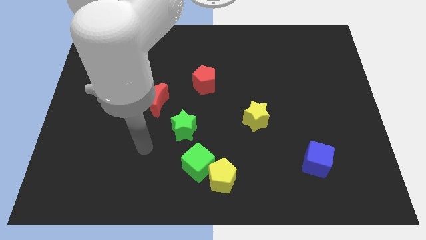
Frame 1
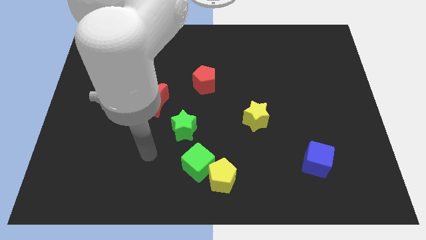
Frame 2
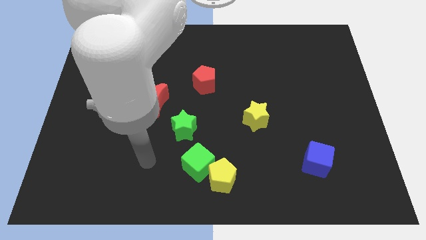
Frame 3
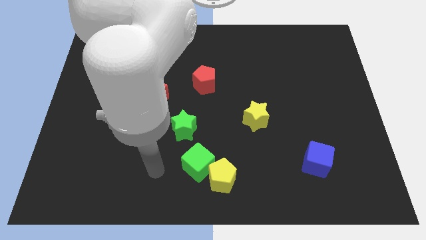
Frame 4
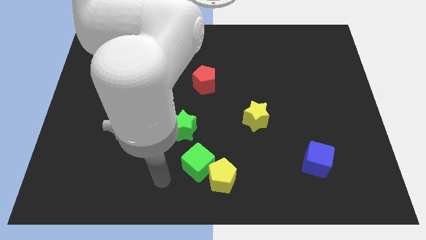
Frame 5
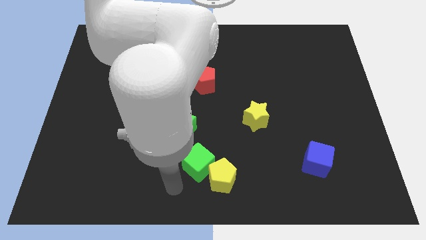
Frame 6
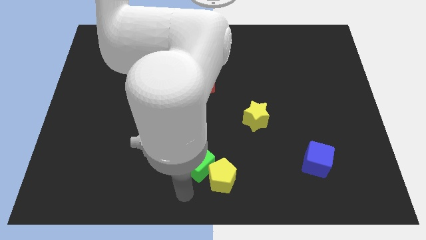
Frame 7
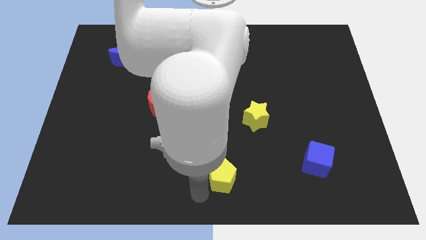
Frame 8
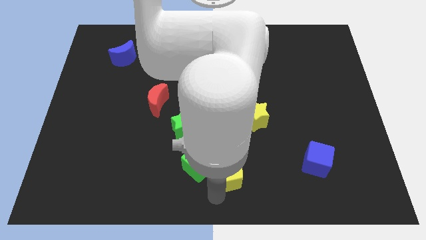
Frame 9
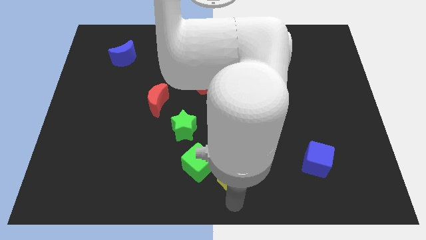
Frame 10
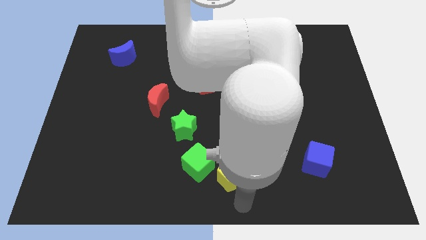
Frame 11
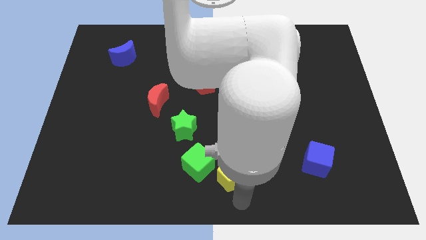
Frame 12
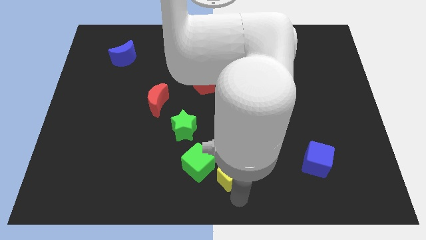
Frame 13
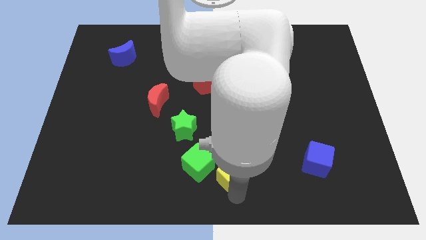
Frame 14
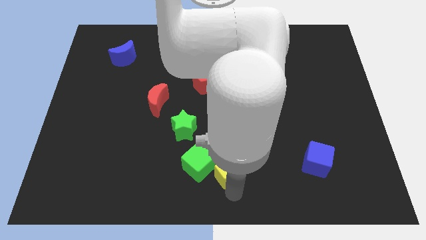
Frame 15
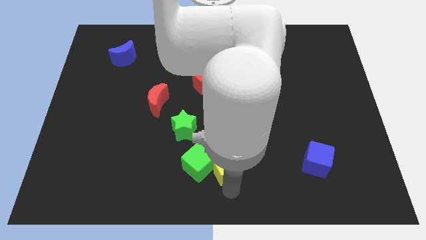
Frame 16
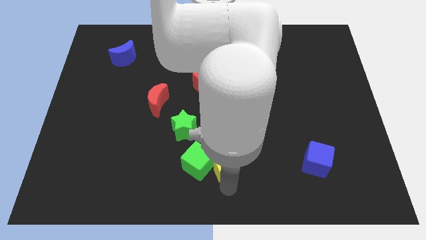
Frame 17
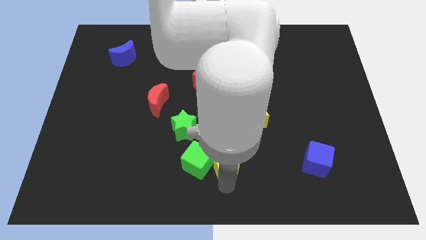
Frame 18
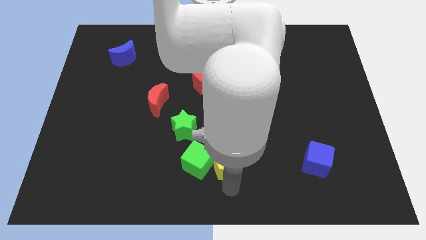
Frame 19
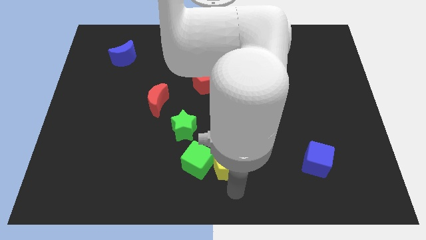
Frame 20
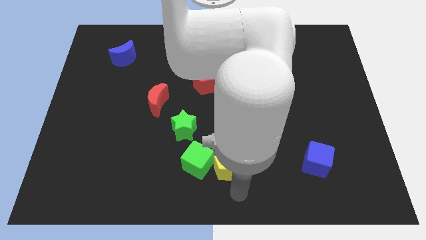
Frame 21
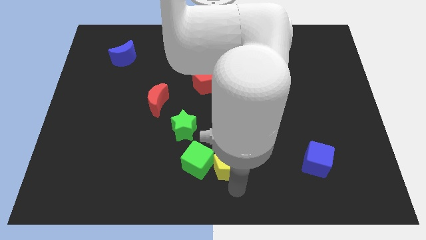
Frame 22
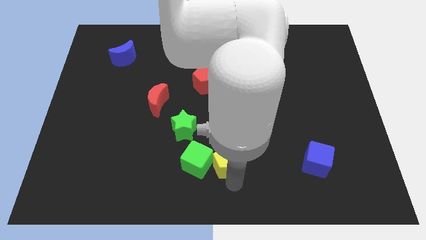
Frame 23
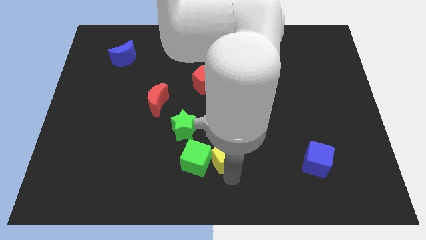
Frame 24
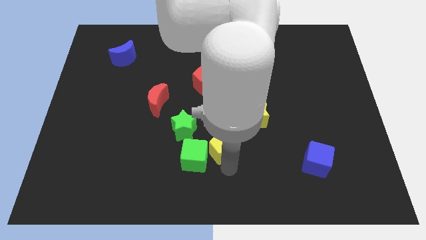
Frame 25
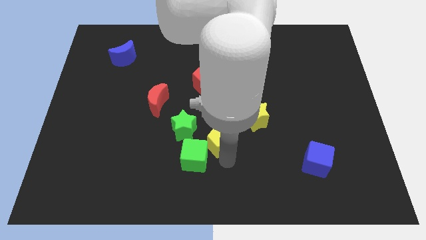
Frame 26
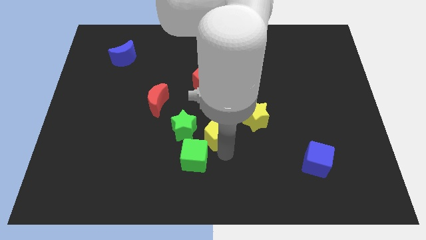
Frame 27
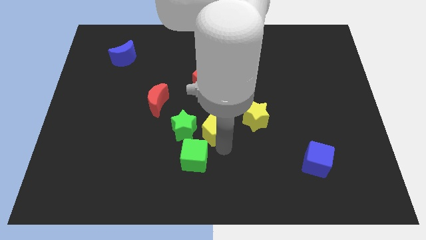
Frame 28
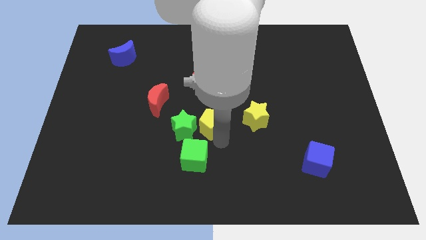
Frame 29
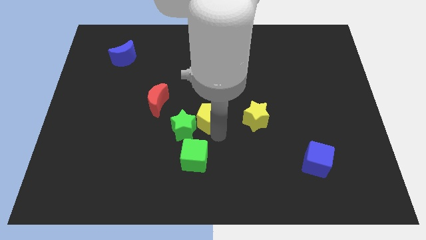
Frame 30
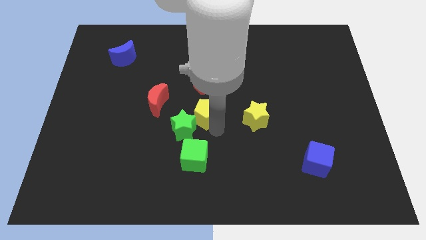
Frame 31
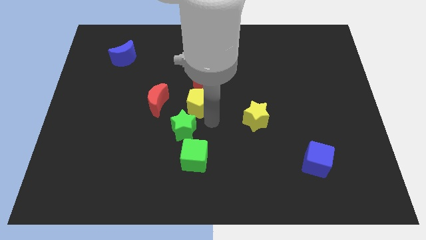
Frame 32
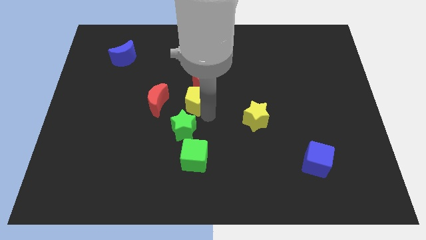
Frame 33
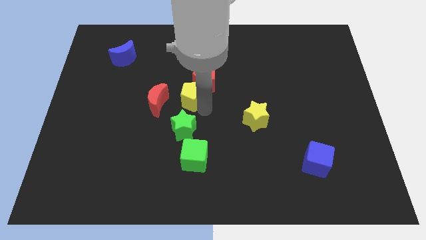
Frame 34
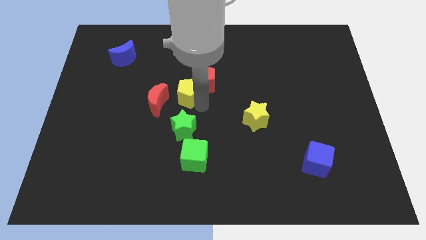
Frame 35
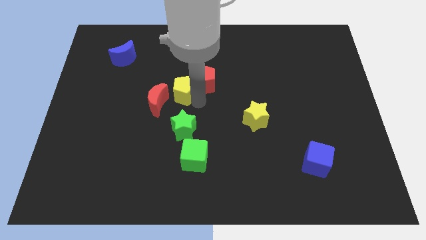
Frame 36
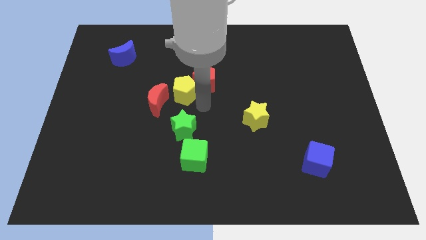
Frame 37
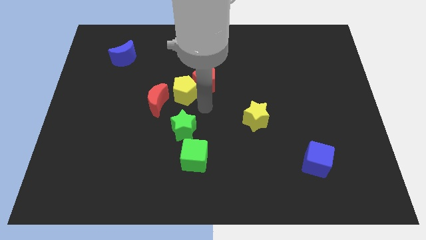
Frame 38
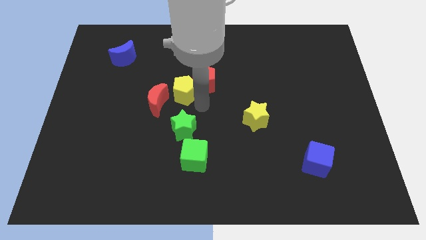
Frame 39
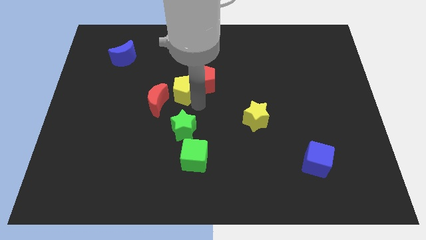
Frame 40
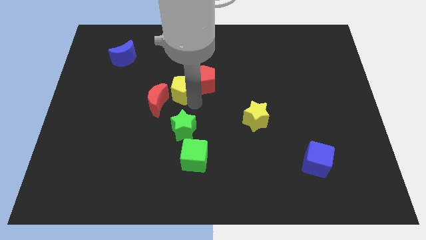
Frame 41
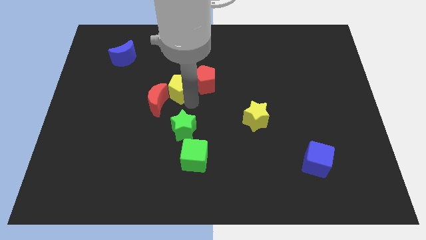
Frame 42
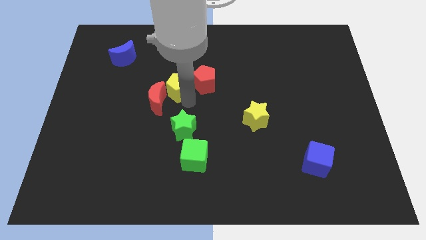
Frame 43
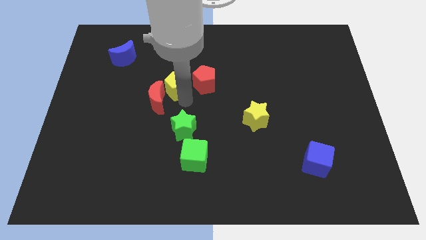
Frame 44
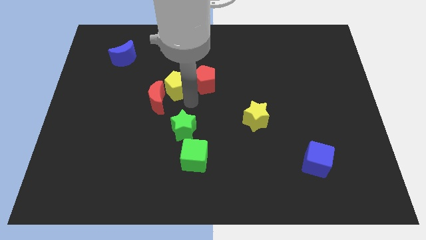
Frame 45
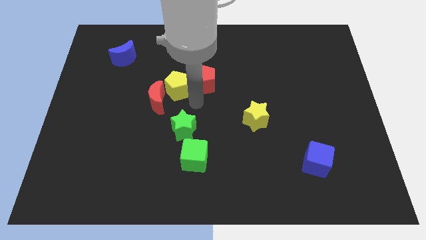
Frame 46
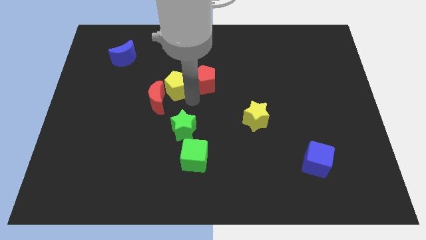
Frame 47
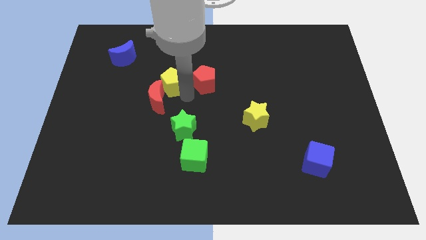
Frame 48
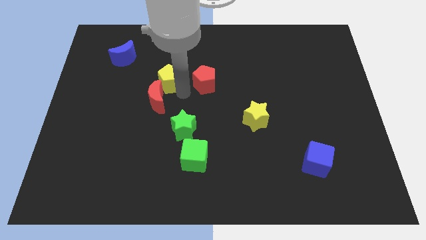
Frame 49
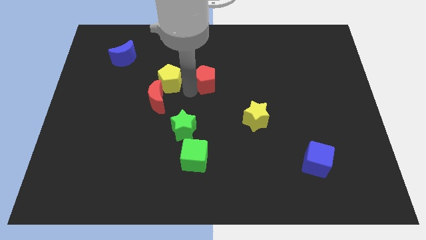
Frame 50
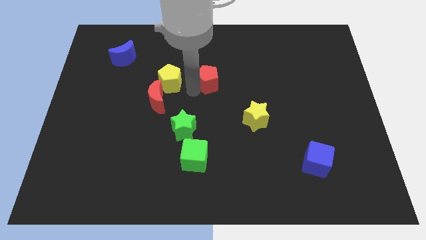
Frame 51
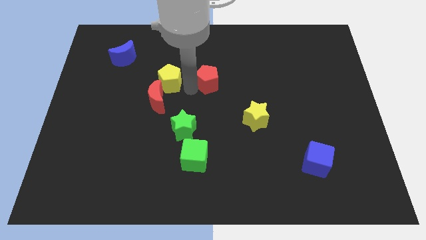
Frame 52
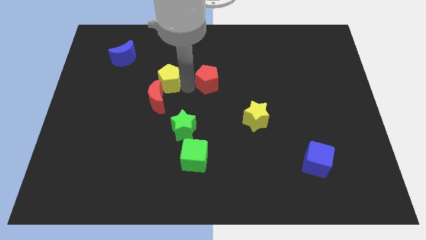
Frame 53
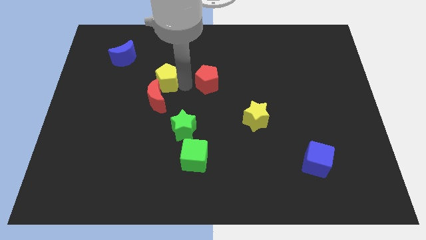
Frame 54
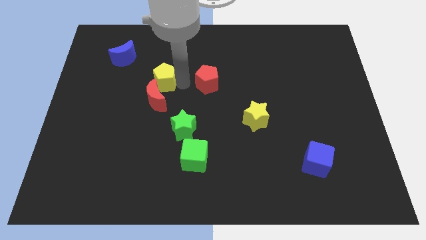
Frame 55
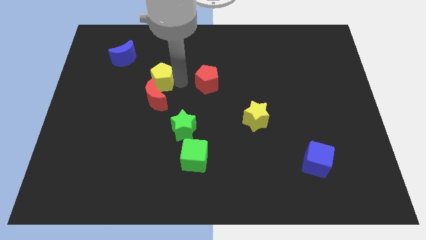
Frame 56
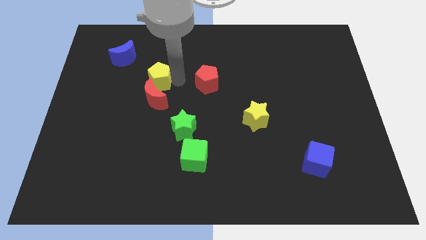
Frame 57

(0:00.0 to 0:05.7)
slide the yellow pentagon to the bottom right of the blue moon

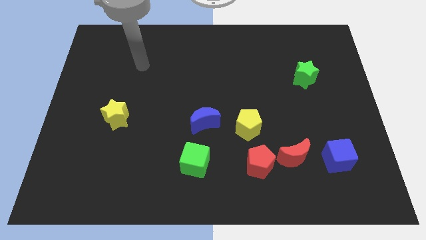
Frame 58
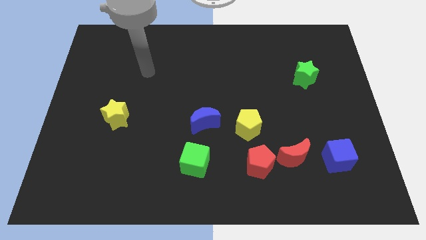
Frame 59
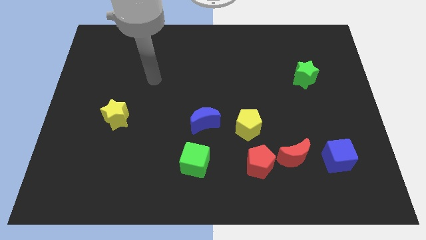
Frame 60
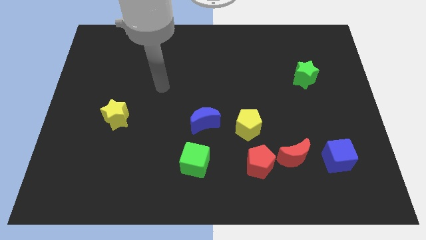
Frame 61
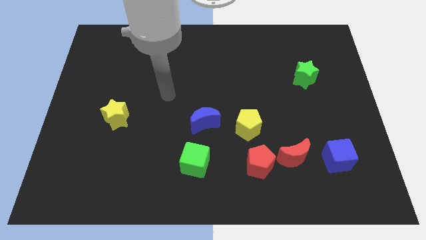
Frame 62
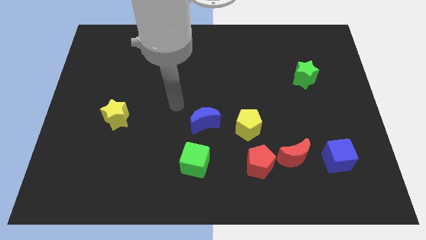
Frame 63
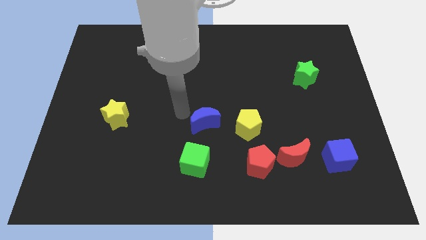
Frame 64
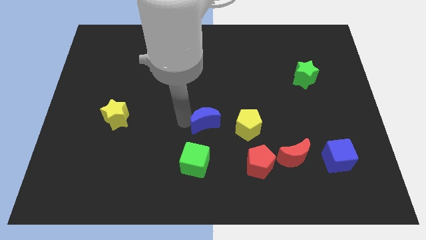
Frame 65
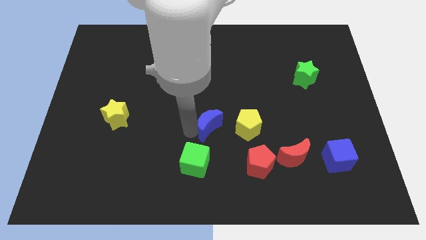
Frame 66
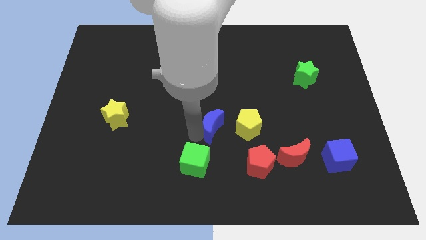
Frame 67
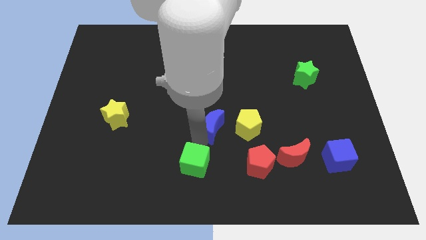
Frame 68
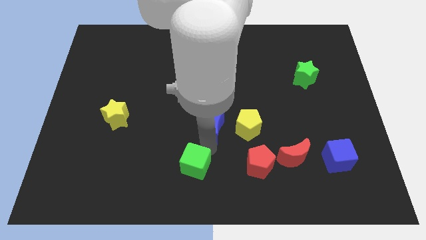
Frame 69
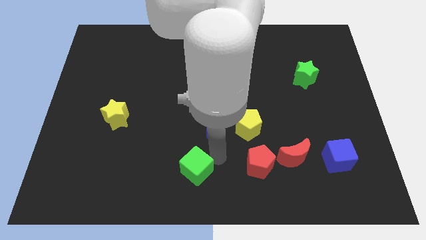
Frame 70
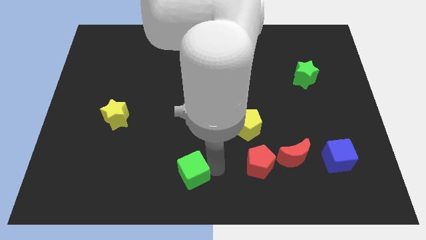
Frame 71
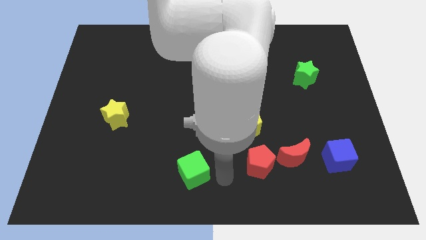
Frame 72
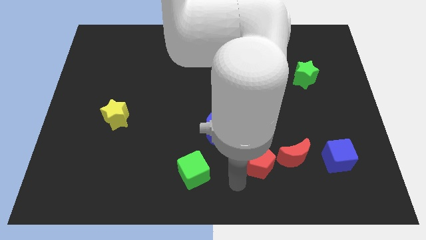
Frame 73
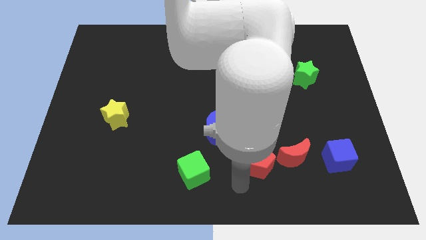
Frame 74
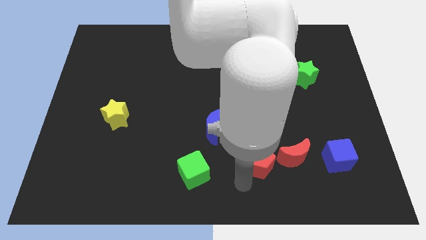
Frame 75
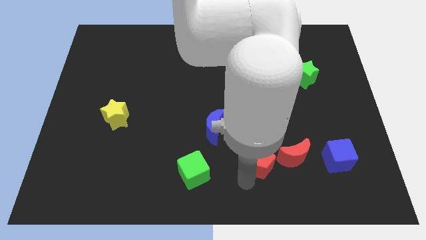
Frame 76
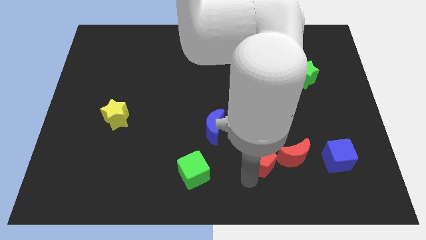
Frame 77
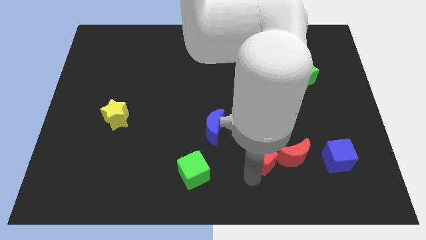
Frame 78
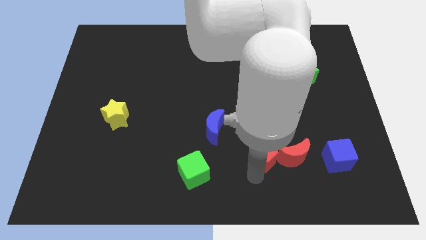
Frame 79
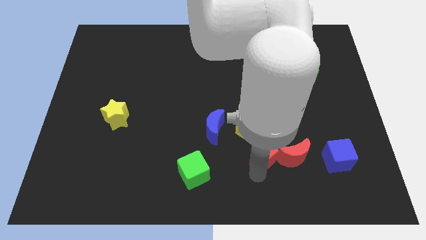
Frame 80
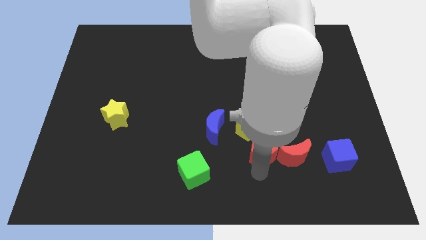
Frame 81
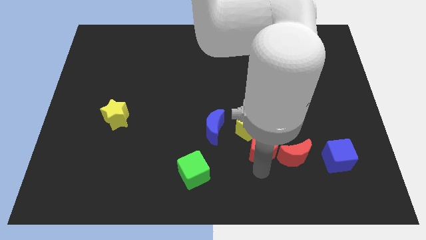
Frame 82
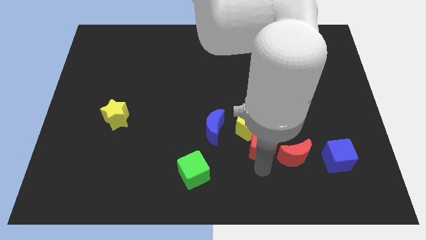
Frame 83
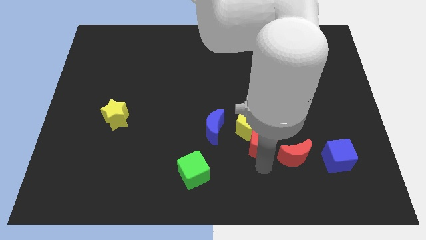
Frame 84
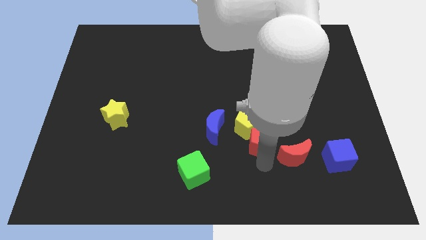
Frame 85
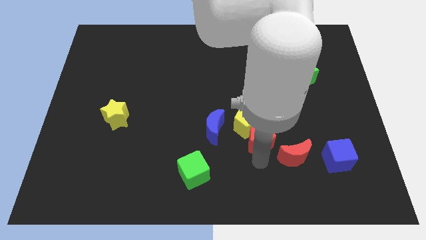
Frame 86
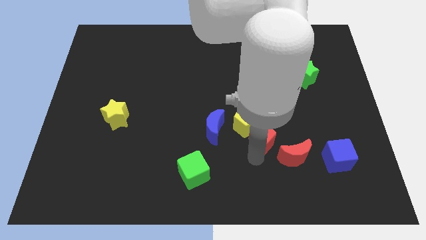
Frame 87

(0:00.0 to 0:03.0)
slide the red pentagon right of the yellow pentagon
